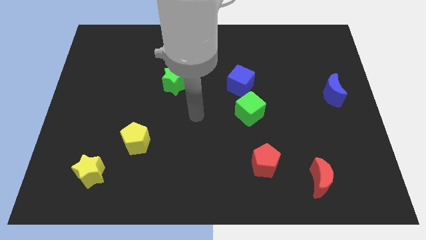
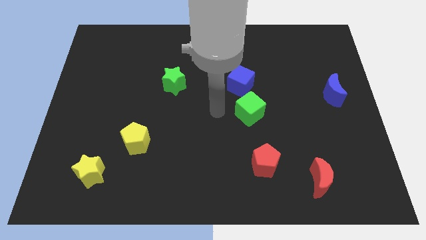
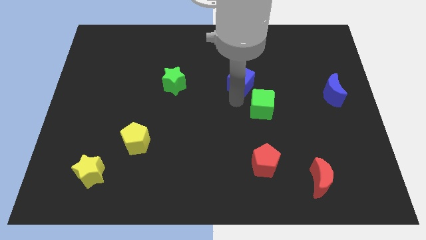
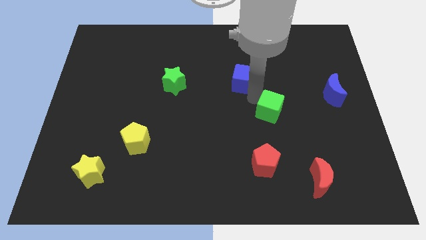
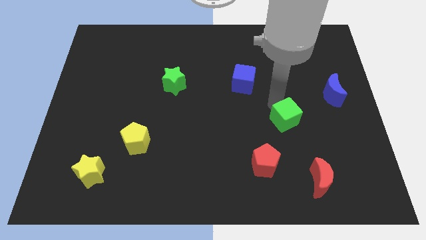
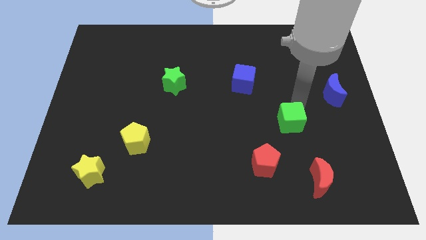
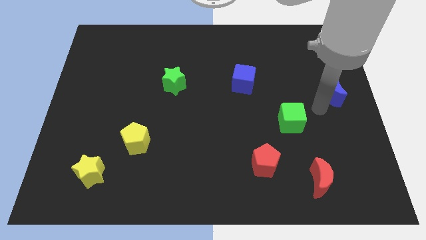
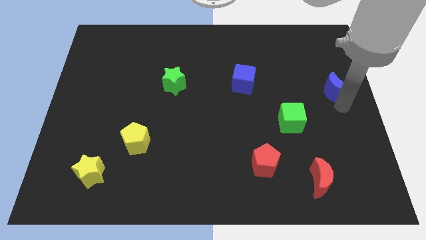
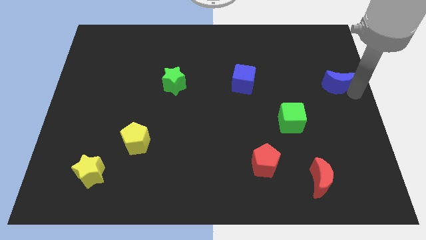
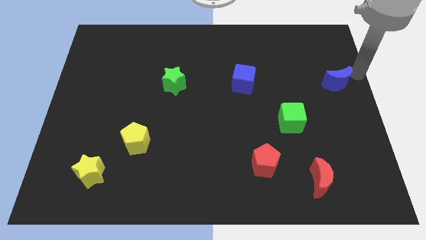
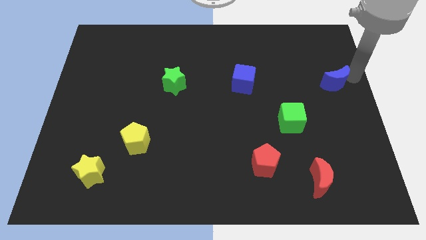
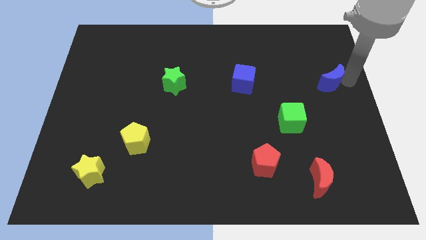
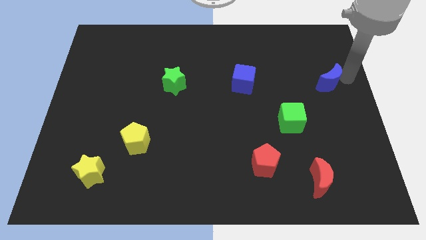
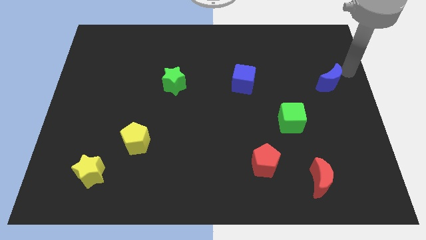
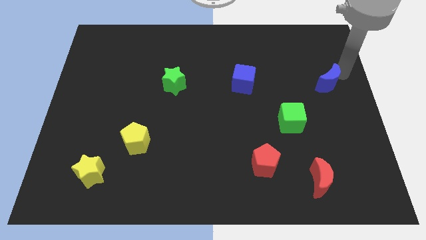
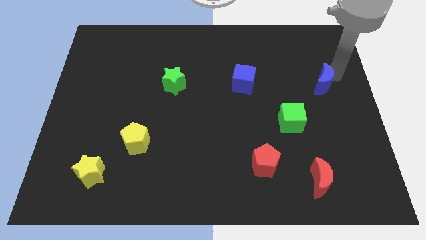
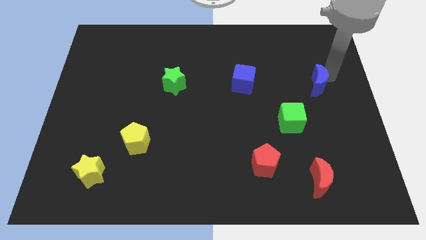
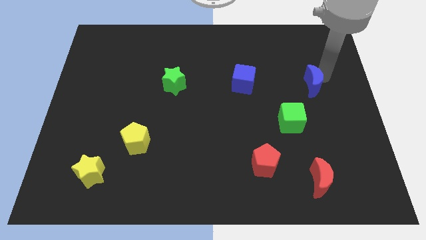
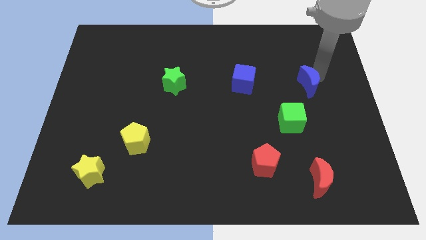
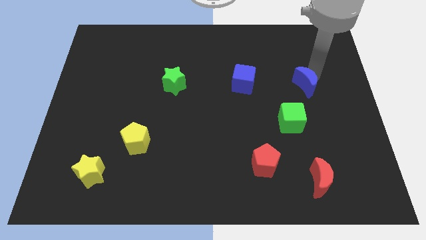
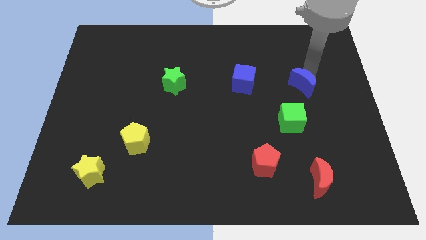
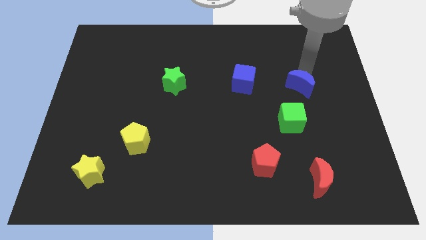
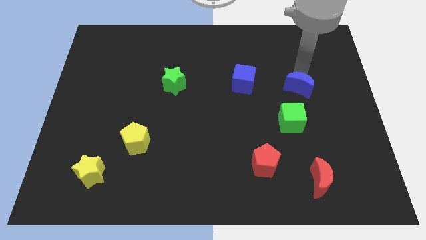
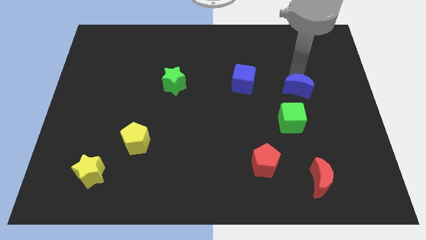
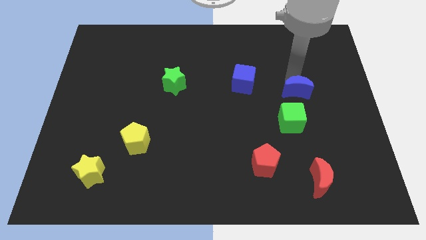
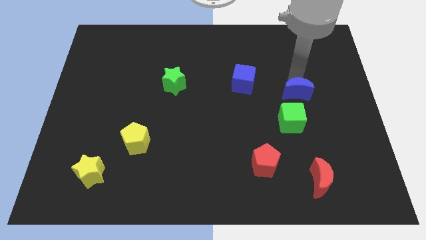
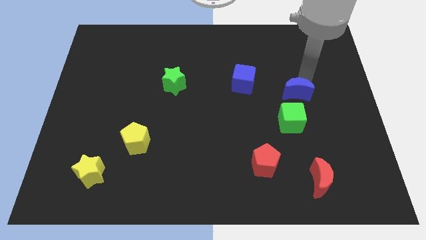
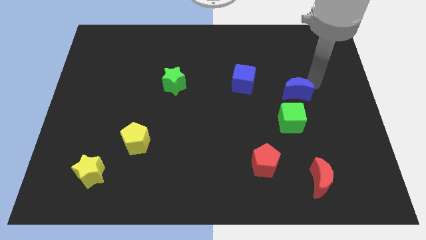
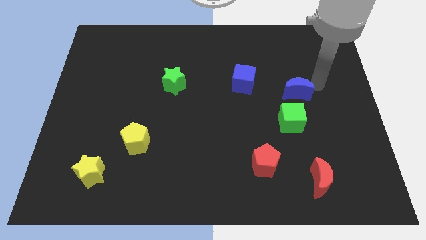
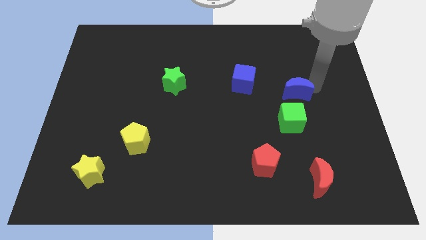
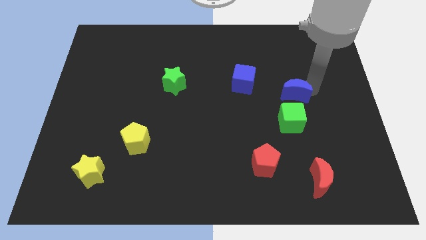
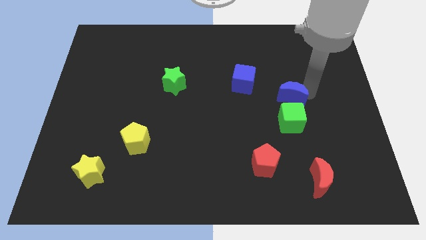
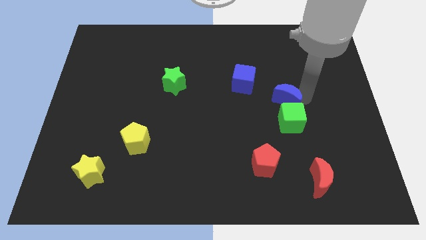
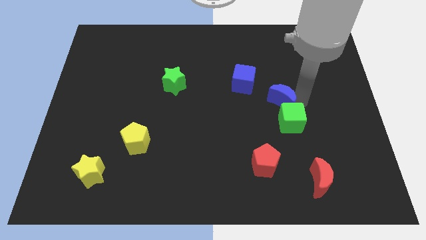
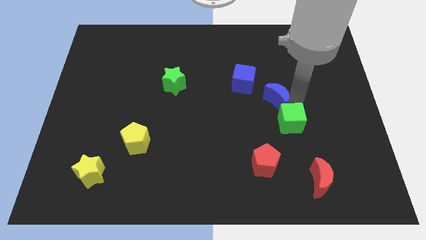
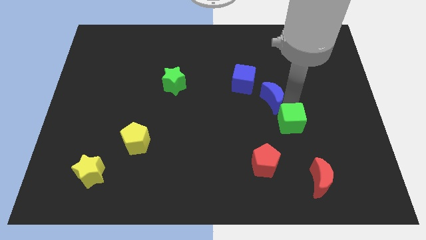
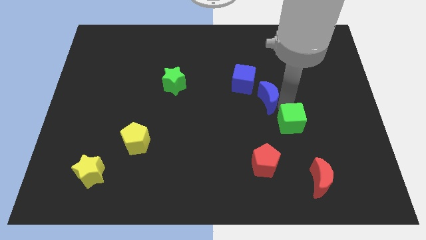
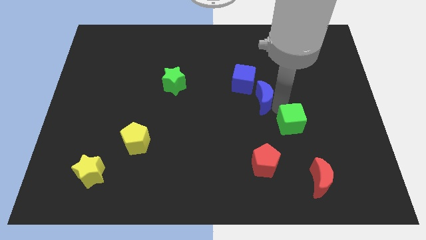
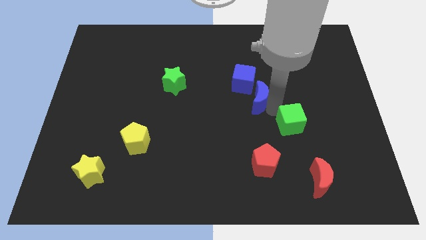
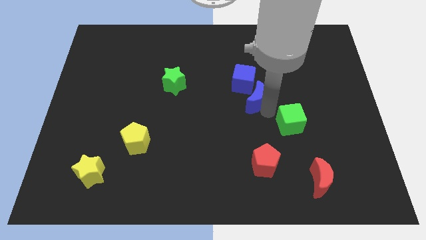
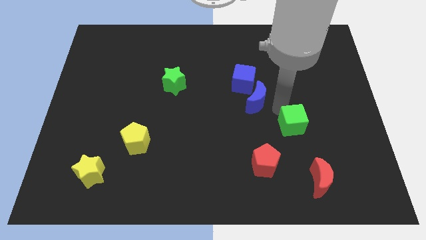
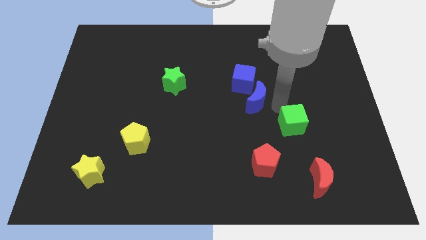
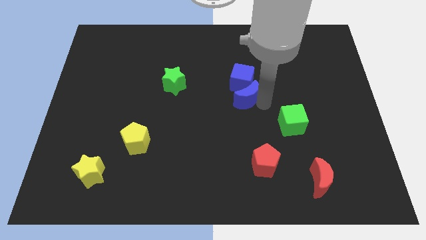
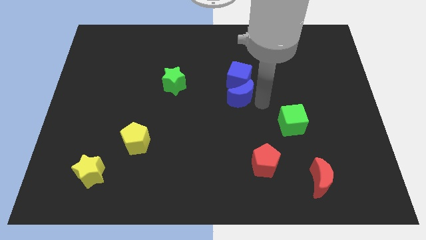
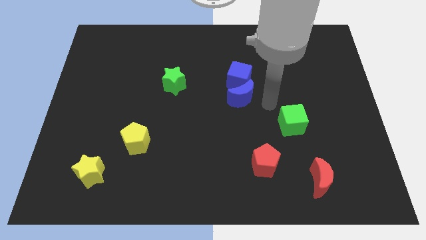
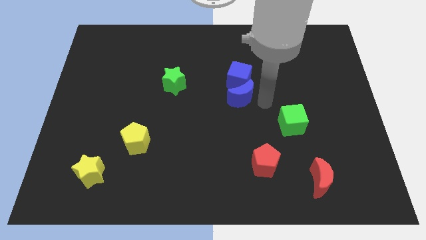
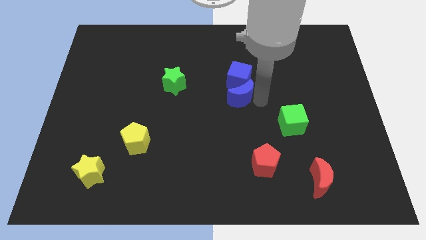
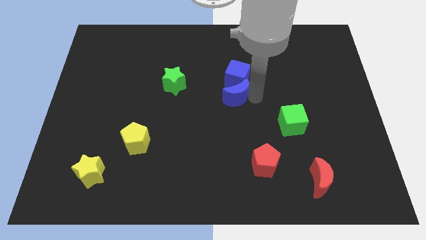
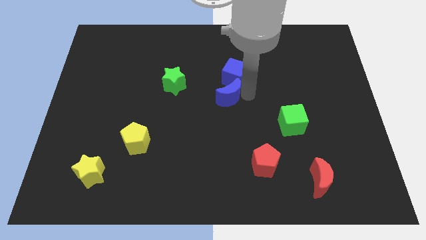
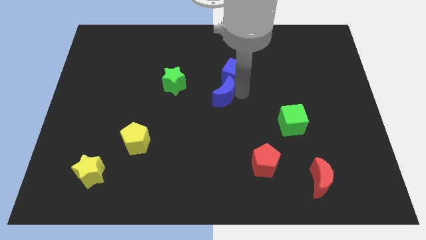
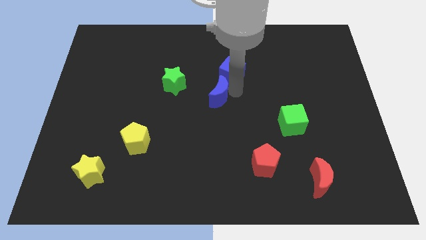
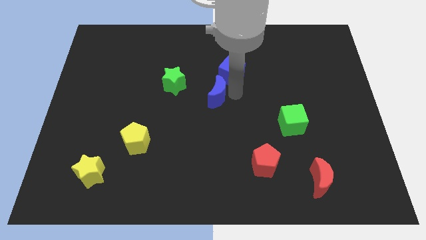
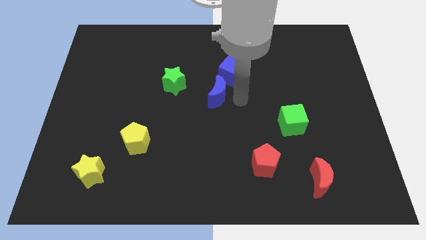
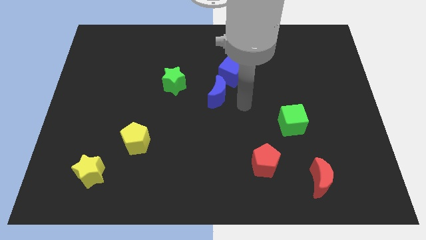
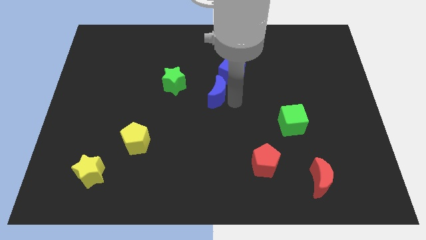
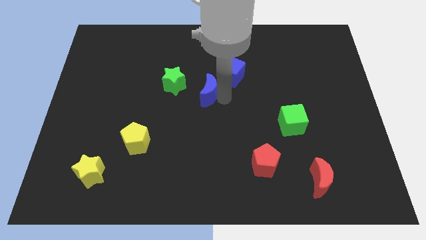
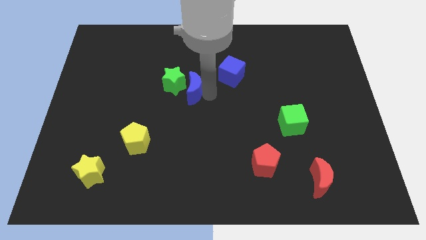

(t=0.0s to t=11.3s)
move the blue moon to the green star

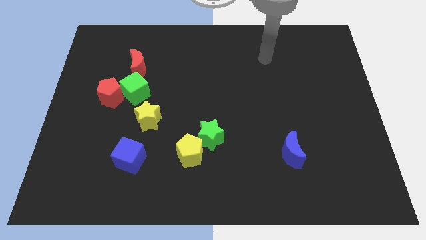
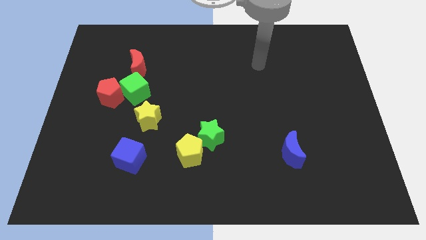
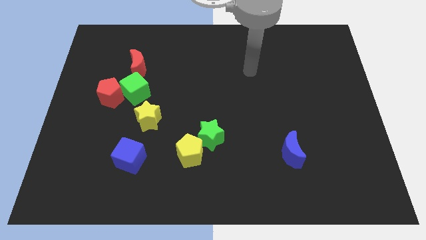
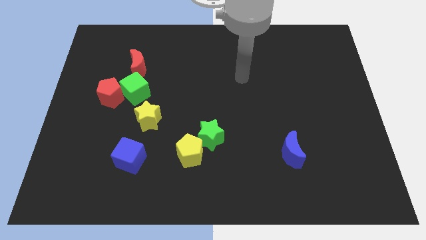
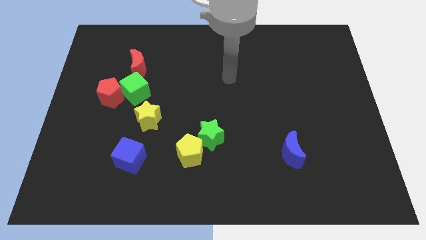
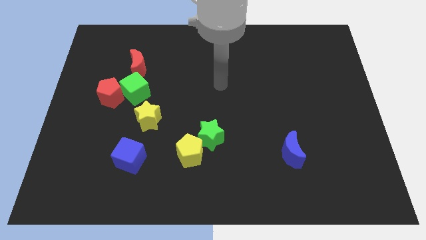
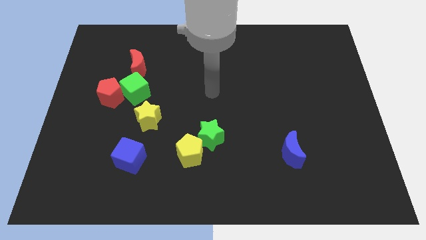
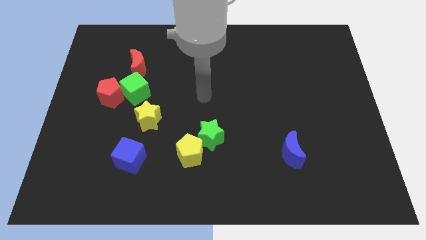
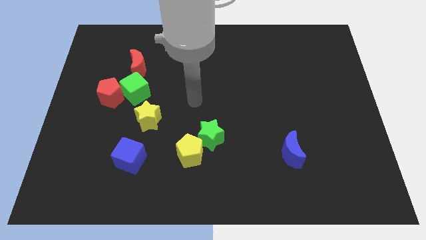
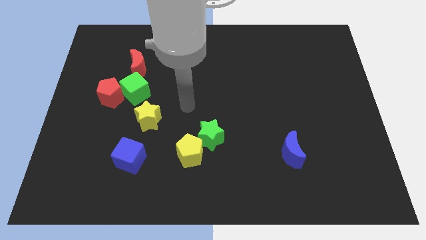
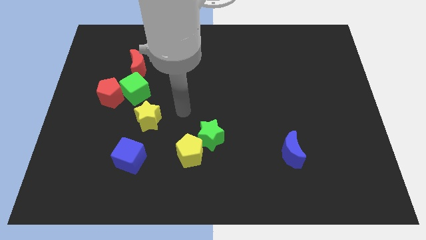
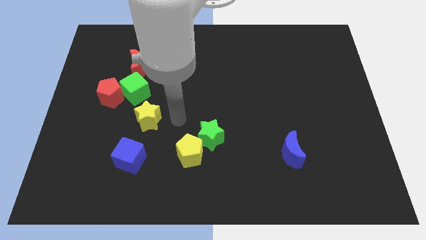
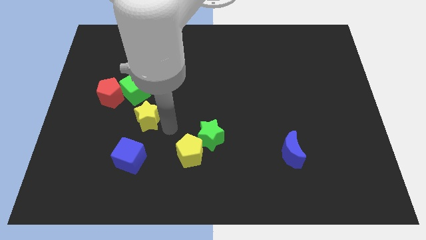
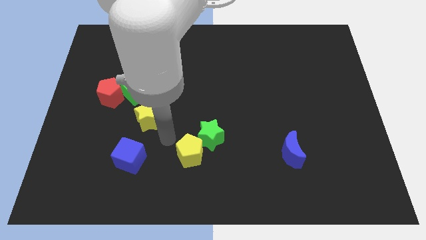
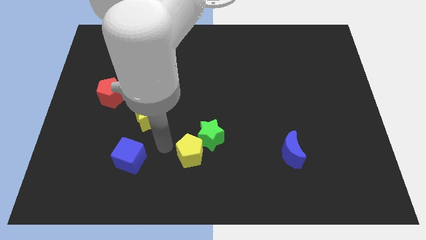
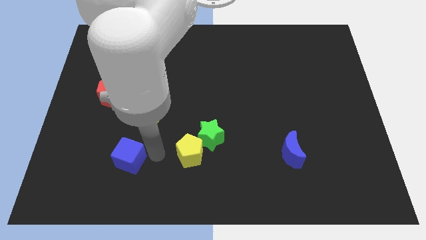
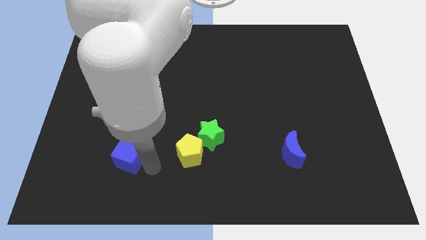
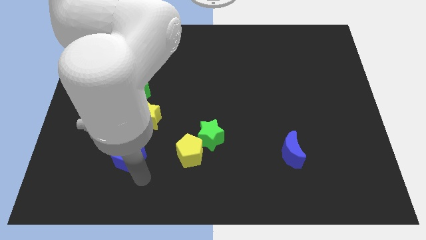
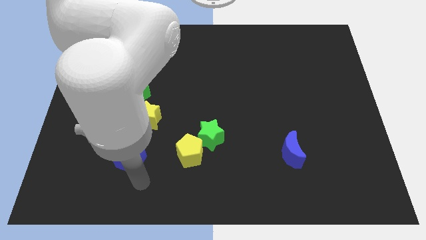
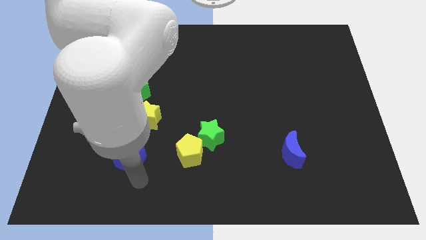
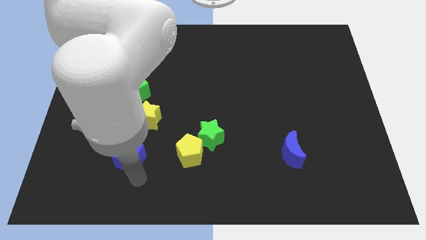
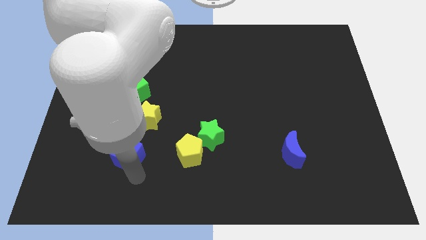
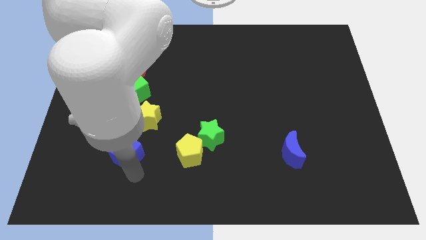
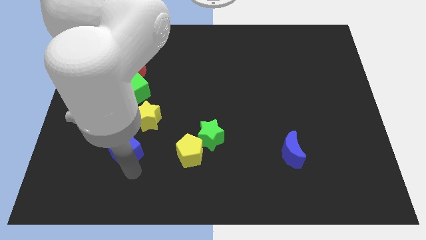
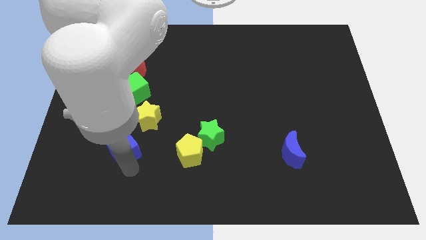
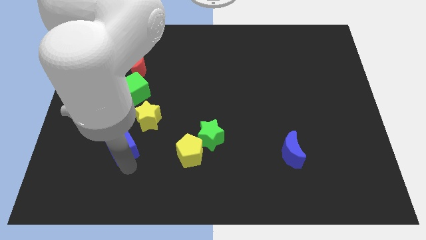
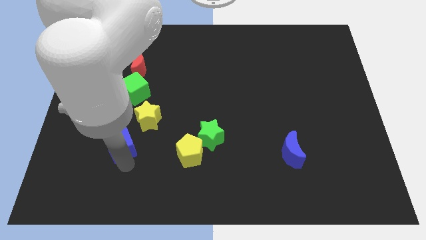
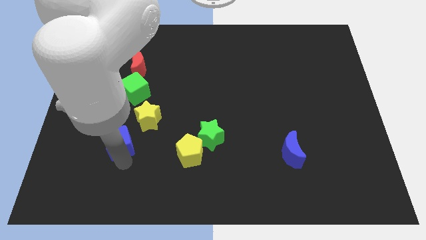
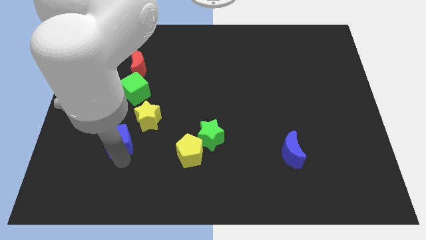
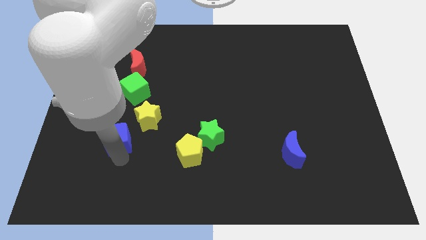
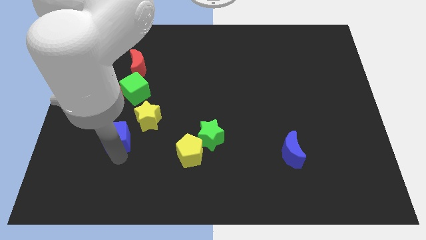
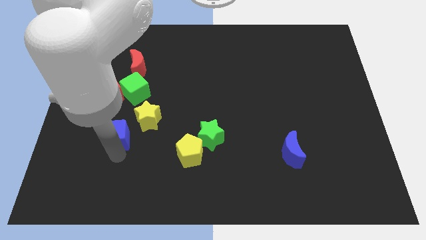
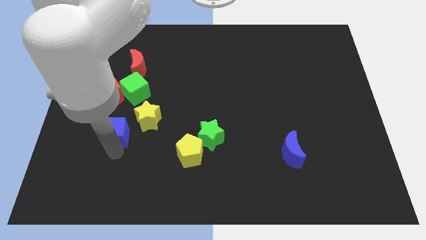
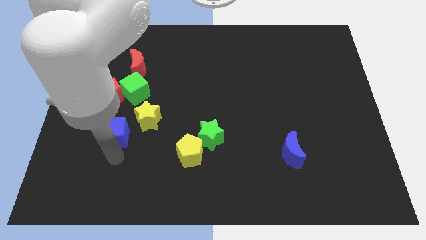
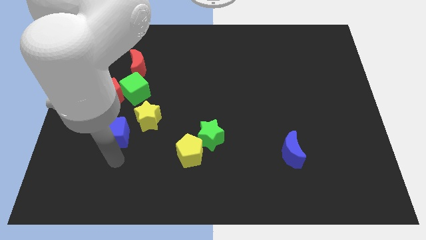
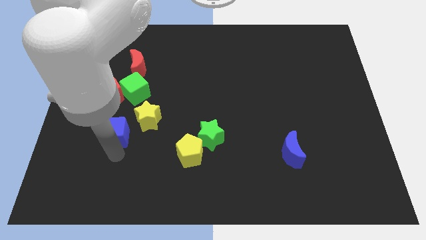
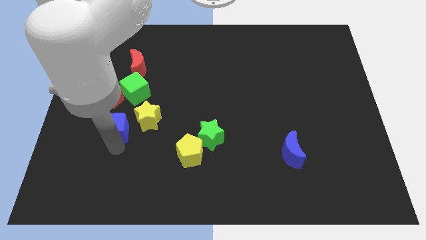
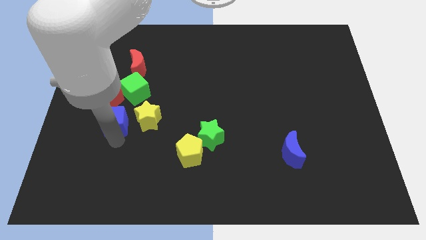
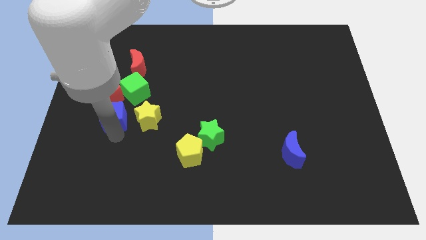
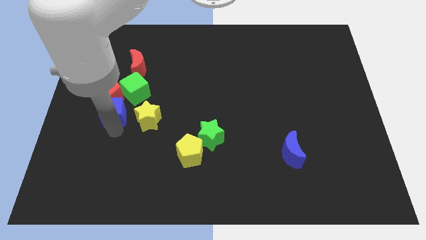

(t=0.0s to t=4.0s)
put the blue cube towards the red pentagon
